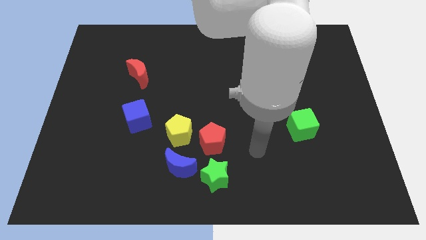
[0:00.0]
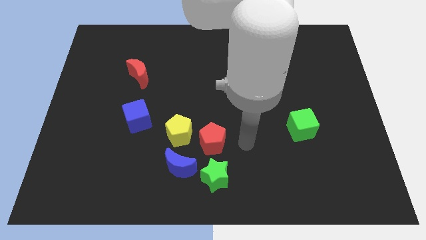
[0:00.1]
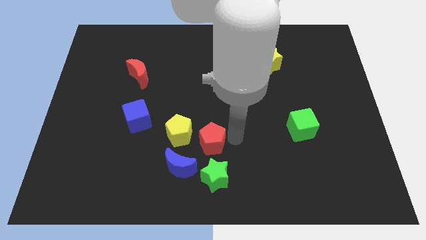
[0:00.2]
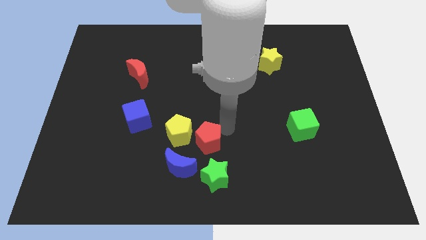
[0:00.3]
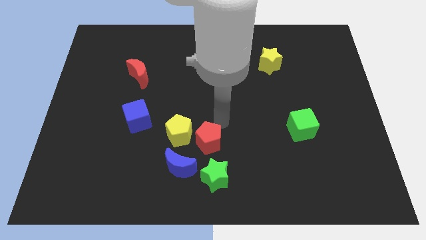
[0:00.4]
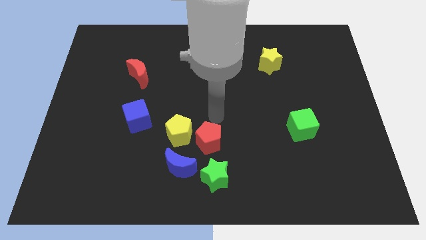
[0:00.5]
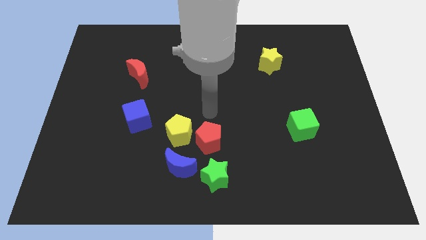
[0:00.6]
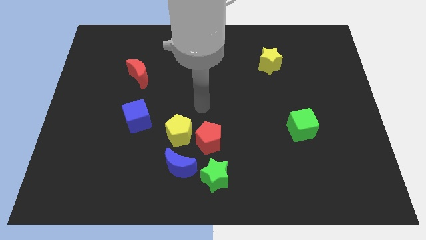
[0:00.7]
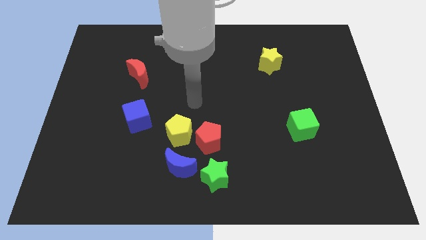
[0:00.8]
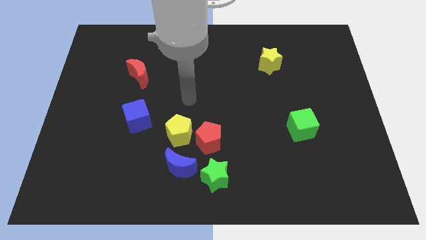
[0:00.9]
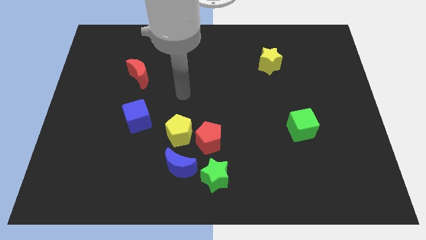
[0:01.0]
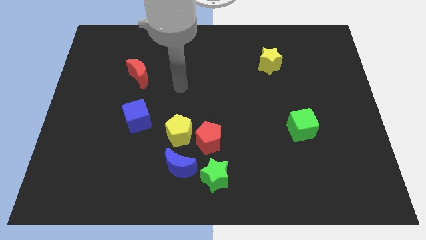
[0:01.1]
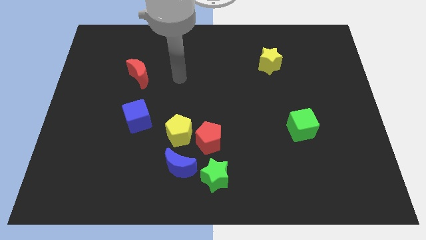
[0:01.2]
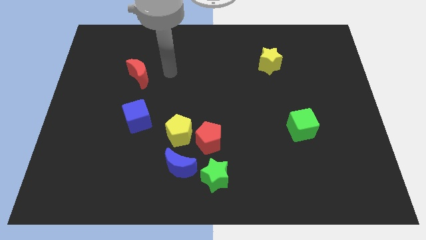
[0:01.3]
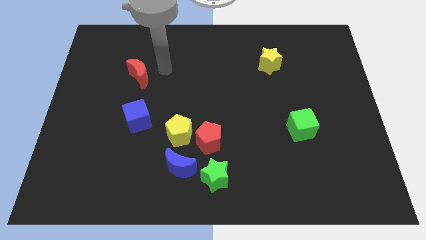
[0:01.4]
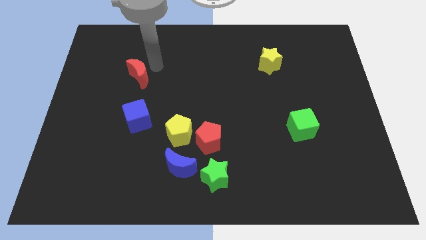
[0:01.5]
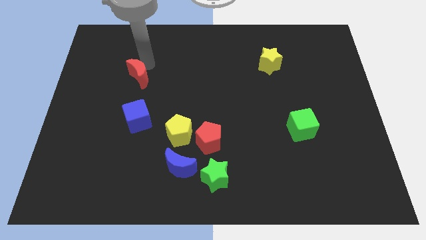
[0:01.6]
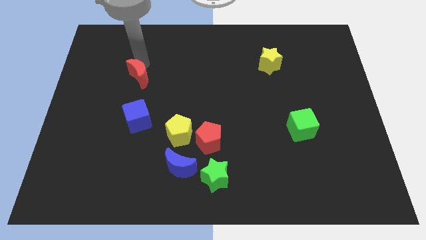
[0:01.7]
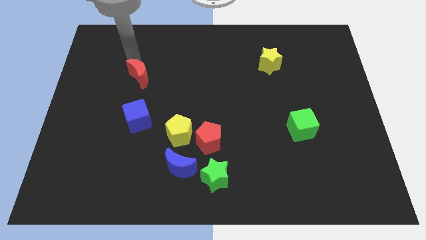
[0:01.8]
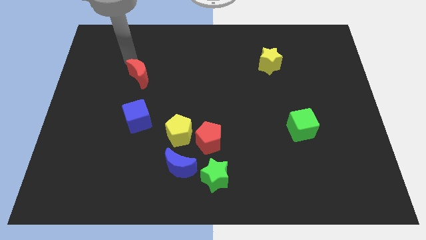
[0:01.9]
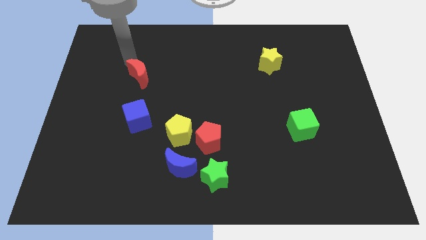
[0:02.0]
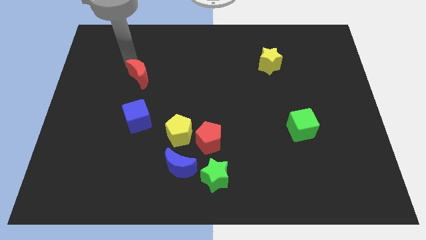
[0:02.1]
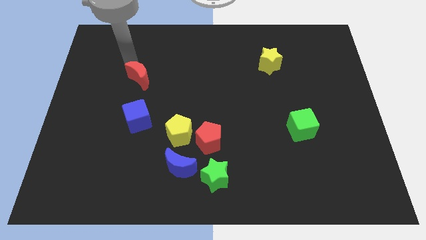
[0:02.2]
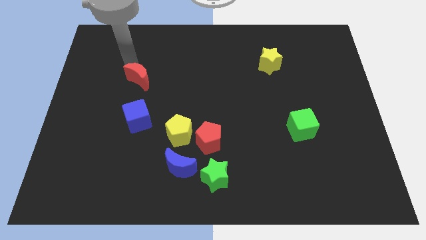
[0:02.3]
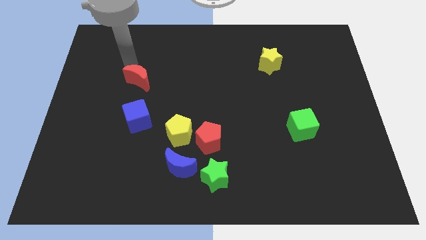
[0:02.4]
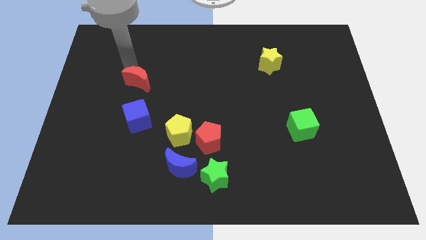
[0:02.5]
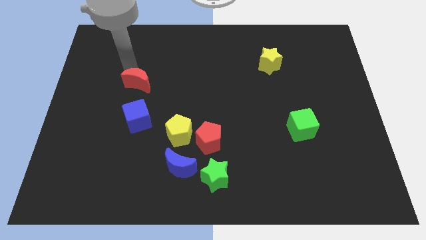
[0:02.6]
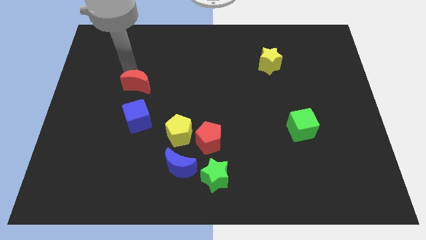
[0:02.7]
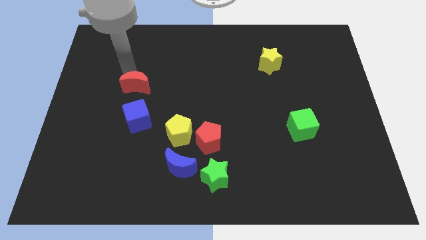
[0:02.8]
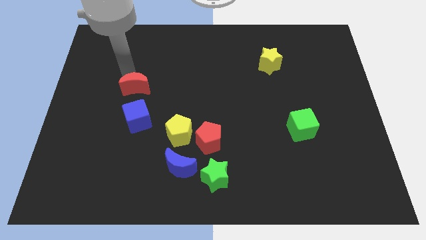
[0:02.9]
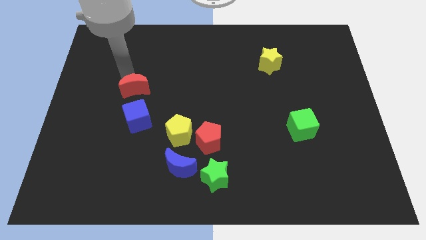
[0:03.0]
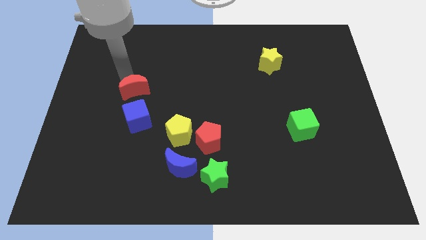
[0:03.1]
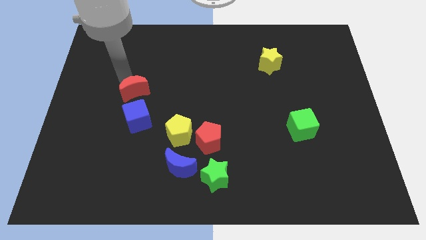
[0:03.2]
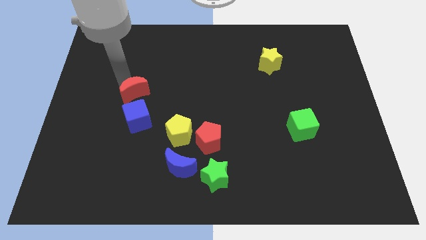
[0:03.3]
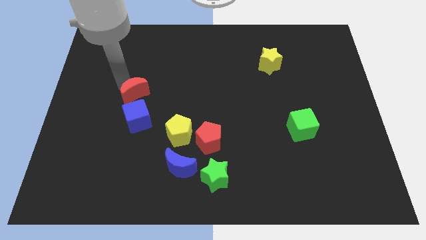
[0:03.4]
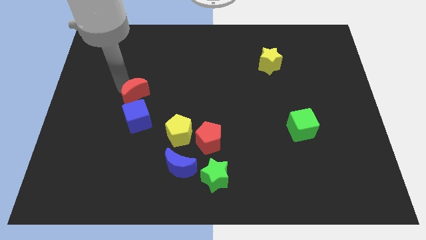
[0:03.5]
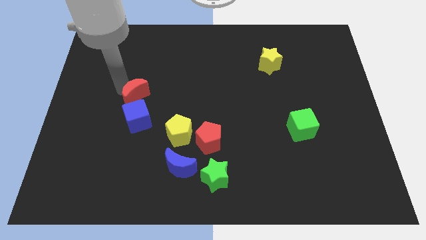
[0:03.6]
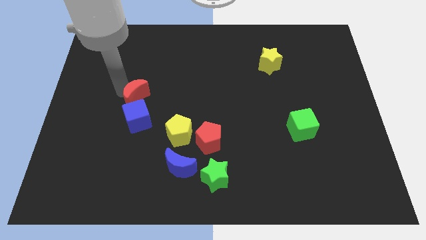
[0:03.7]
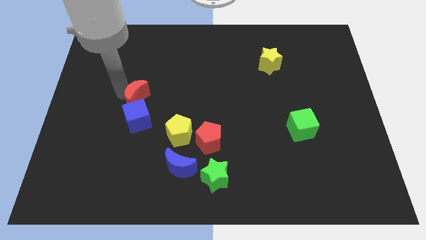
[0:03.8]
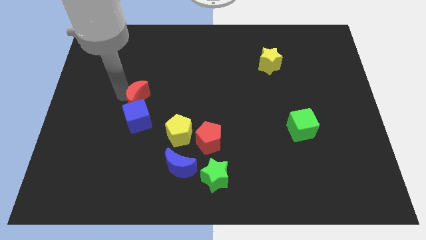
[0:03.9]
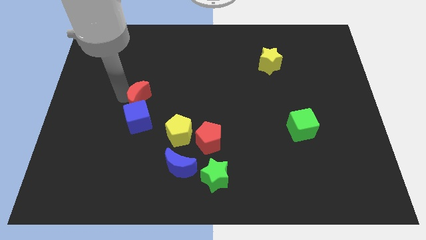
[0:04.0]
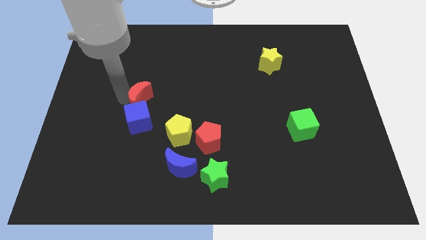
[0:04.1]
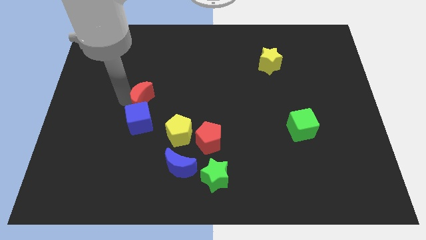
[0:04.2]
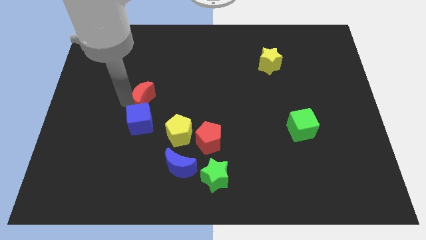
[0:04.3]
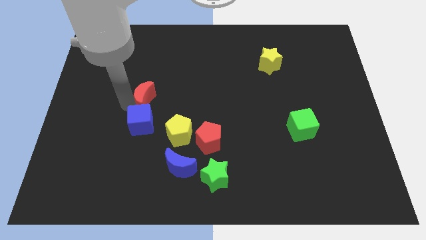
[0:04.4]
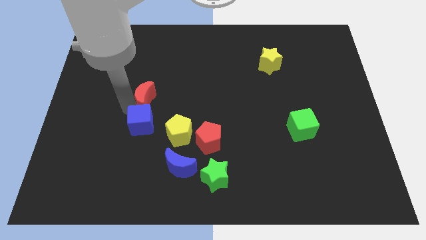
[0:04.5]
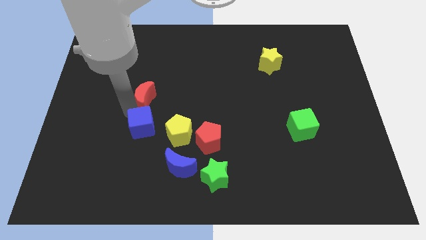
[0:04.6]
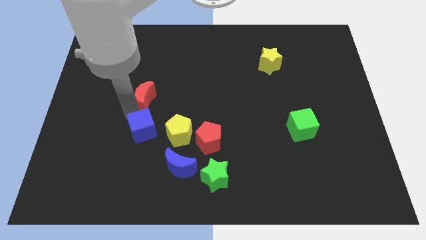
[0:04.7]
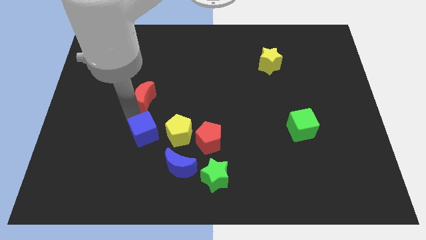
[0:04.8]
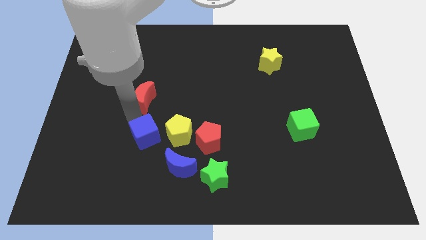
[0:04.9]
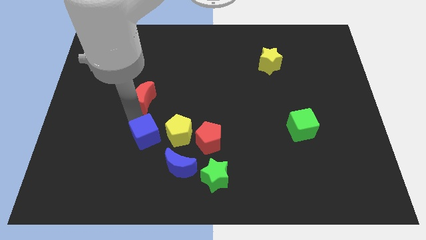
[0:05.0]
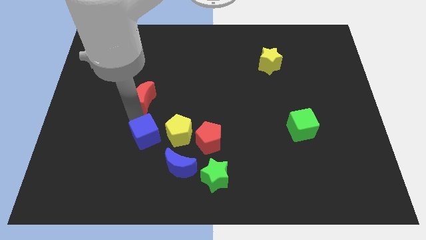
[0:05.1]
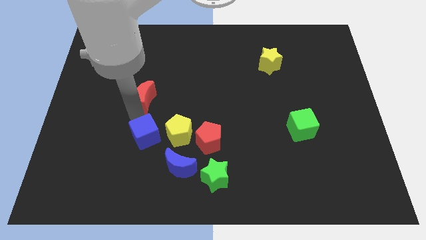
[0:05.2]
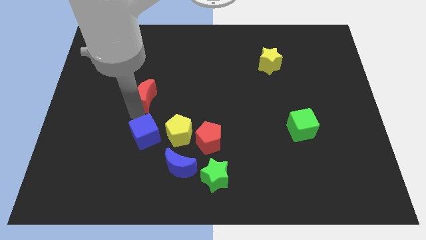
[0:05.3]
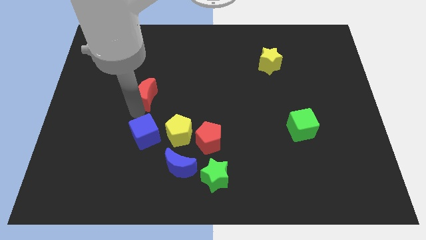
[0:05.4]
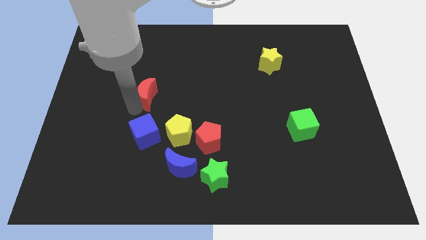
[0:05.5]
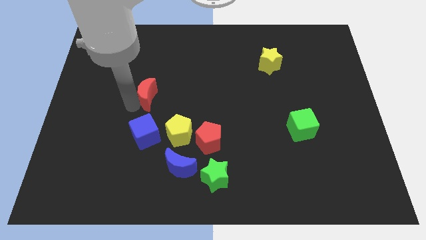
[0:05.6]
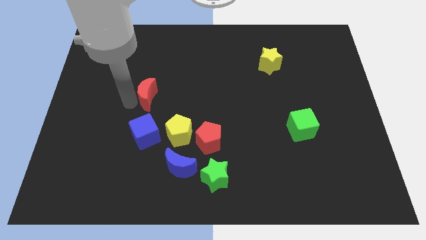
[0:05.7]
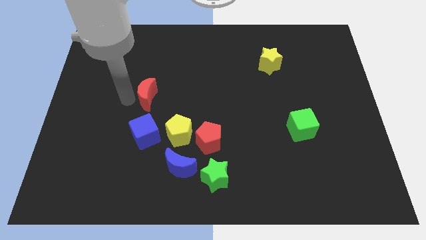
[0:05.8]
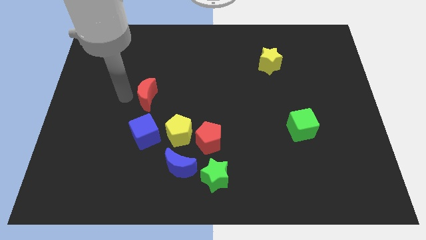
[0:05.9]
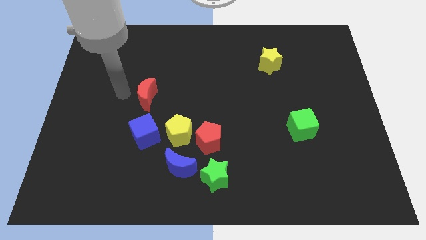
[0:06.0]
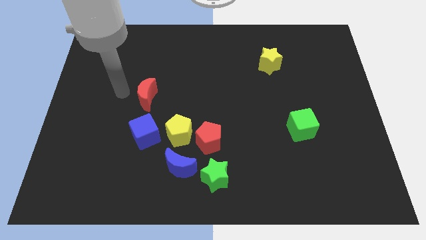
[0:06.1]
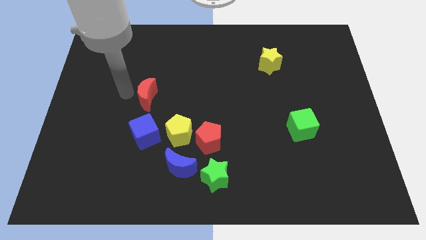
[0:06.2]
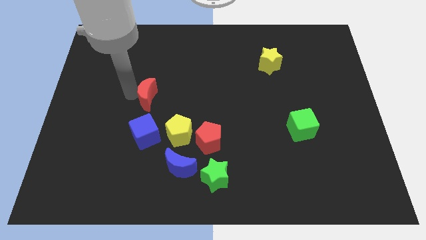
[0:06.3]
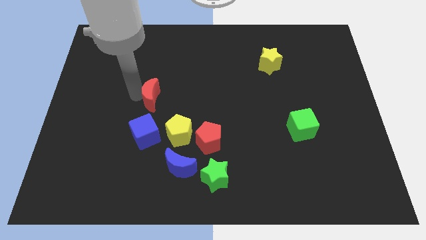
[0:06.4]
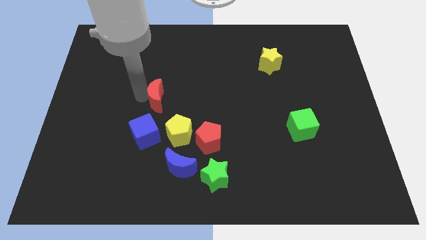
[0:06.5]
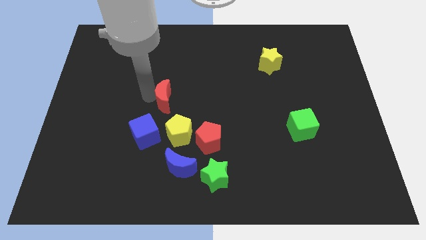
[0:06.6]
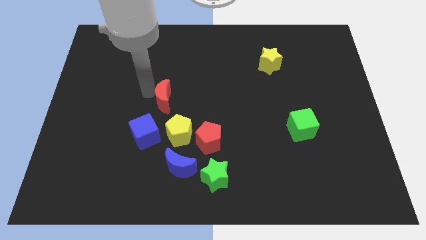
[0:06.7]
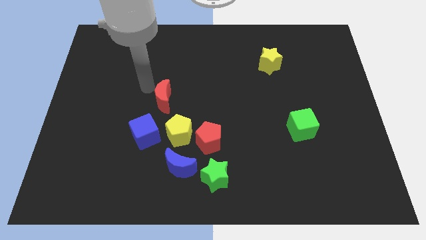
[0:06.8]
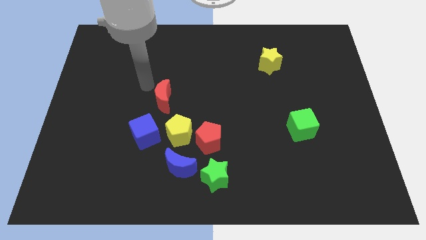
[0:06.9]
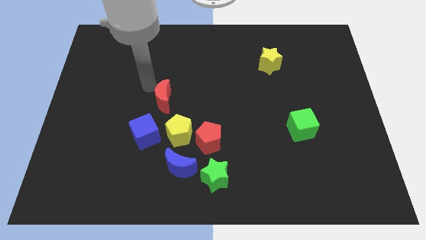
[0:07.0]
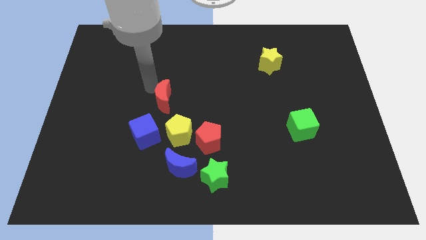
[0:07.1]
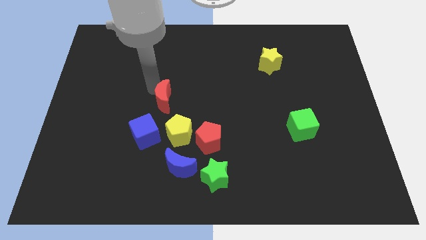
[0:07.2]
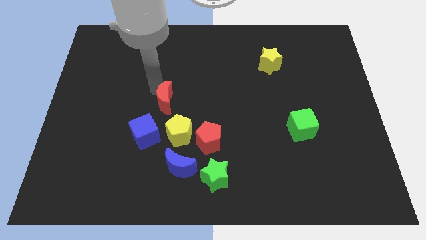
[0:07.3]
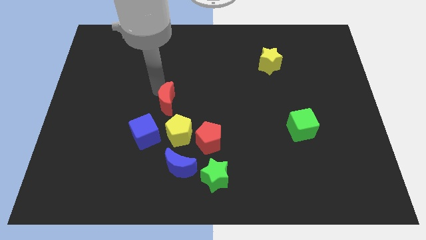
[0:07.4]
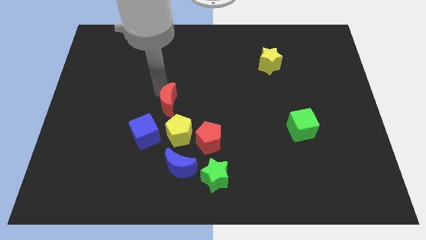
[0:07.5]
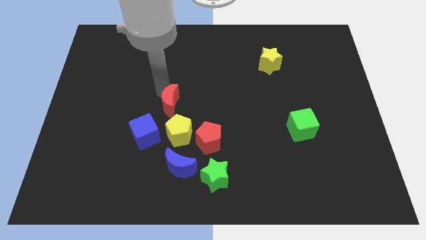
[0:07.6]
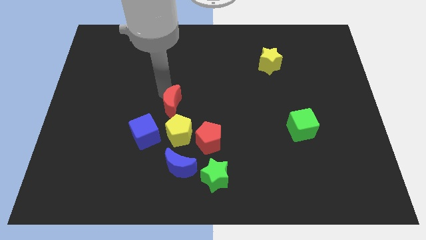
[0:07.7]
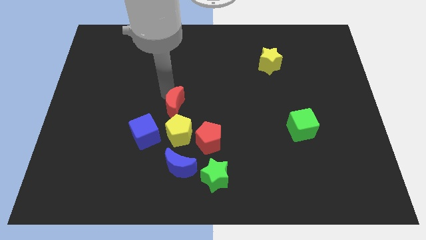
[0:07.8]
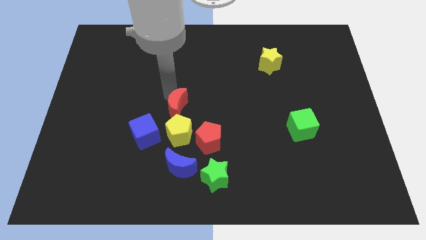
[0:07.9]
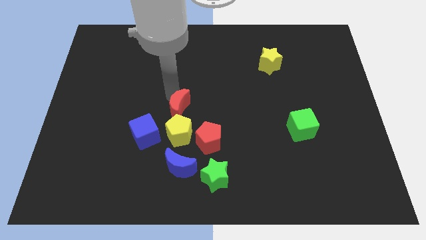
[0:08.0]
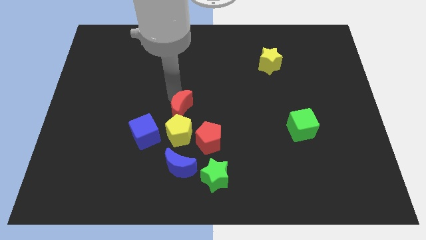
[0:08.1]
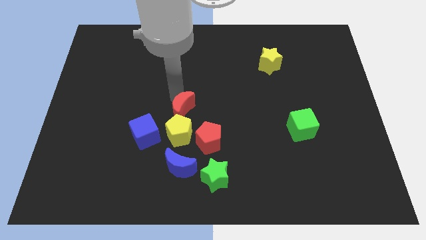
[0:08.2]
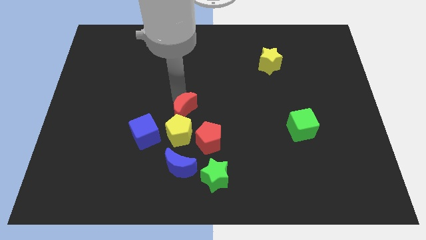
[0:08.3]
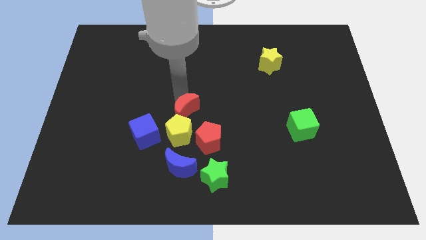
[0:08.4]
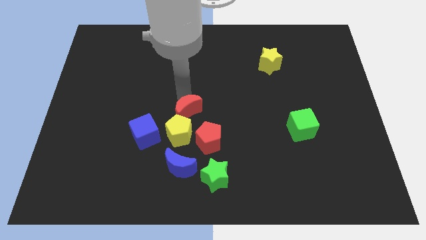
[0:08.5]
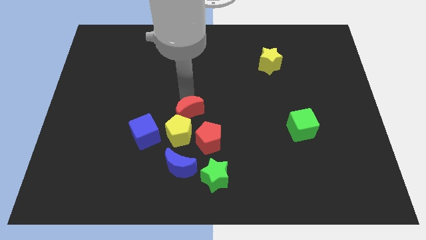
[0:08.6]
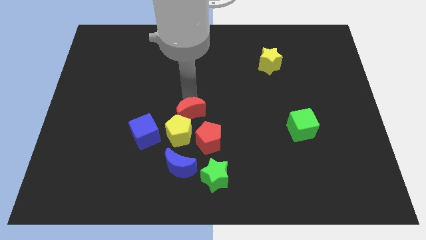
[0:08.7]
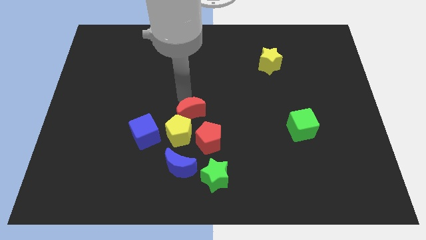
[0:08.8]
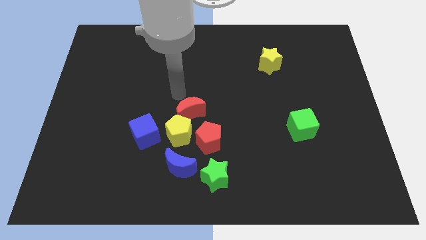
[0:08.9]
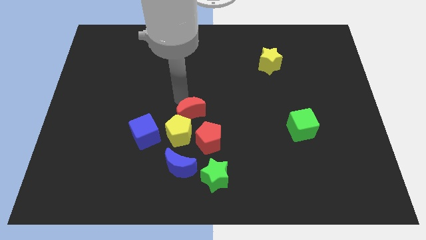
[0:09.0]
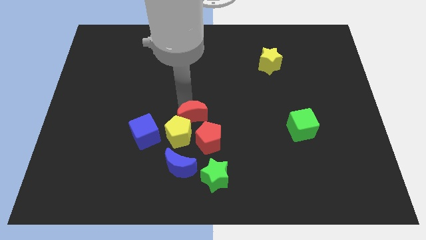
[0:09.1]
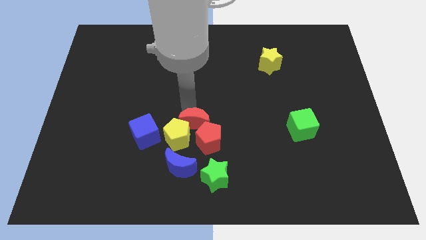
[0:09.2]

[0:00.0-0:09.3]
move the red moon towards the red pentagon
